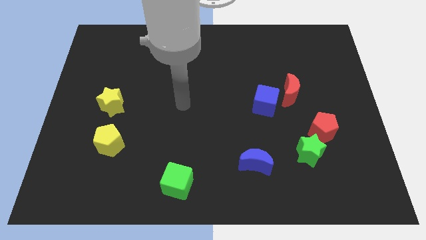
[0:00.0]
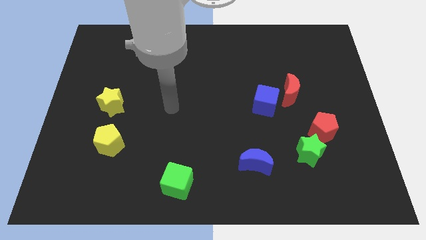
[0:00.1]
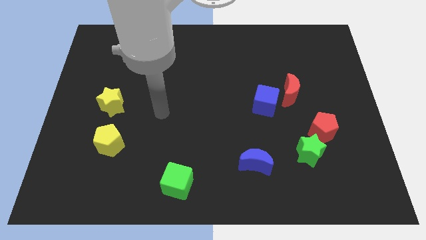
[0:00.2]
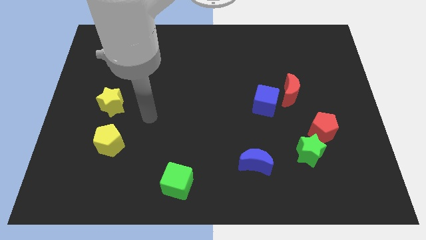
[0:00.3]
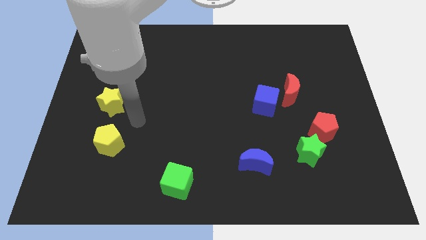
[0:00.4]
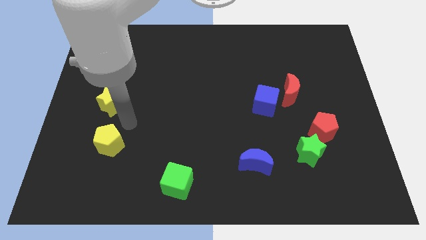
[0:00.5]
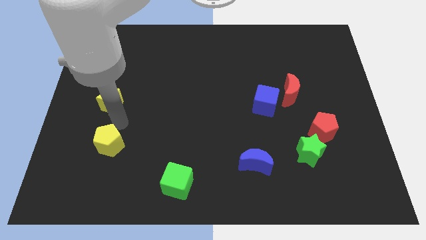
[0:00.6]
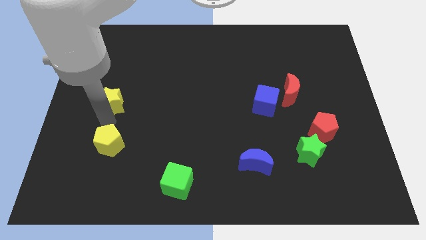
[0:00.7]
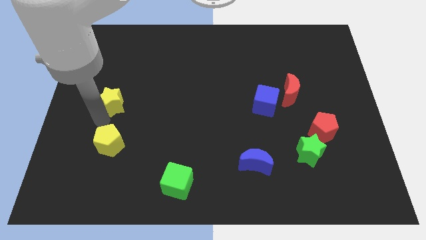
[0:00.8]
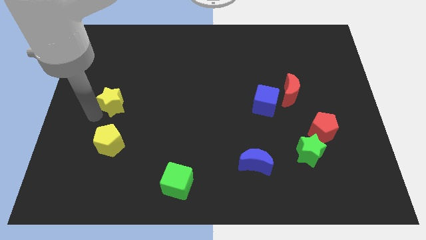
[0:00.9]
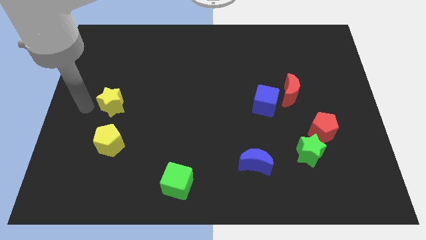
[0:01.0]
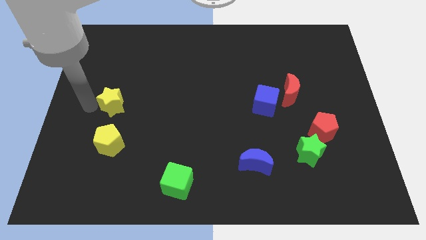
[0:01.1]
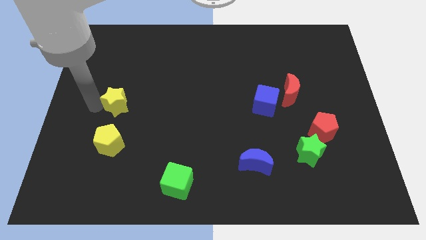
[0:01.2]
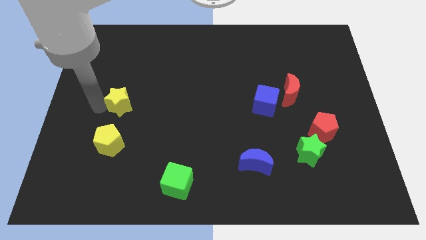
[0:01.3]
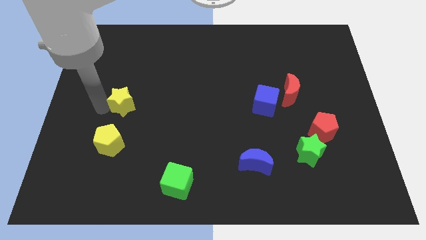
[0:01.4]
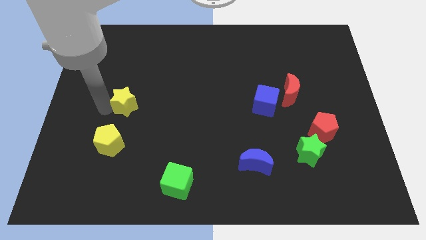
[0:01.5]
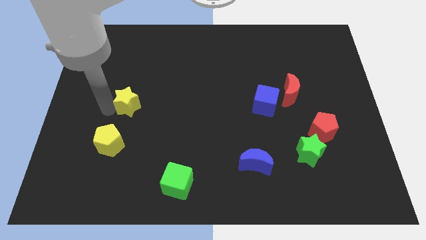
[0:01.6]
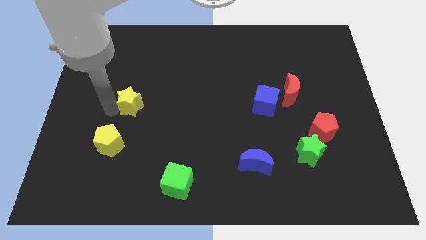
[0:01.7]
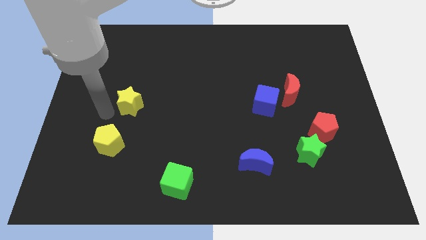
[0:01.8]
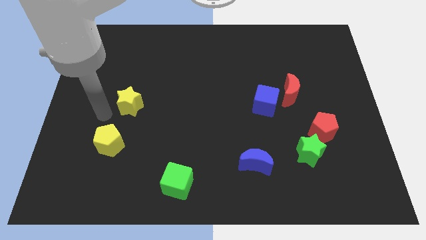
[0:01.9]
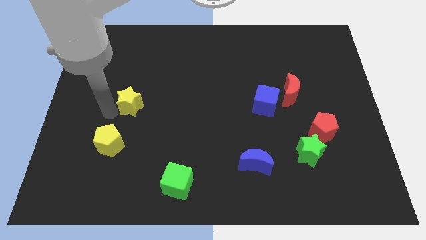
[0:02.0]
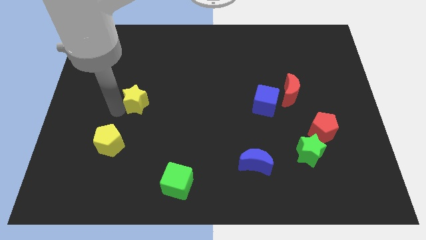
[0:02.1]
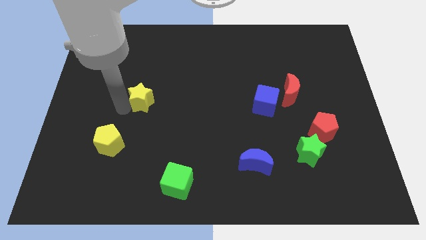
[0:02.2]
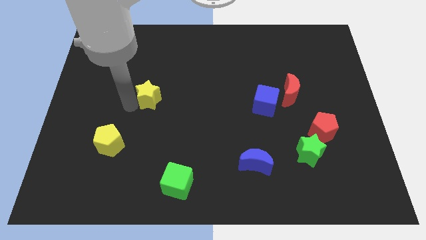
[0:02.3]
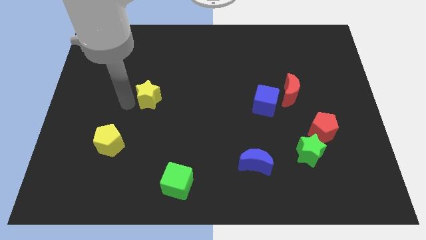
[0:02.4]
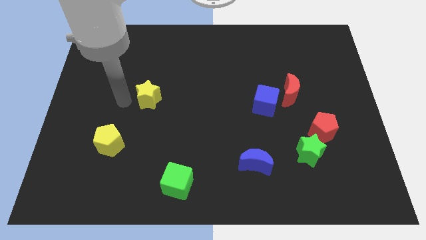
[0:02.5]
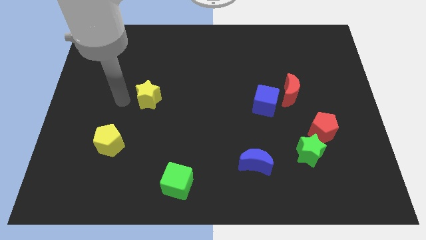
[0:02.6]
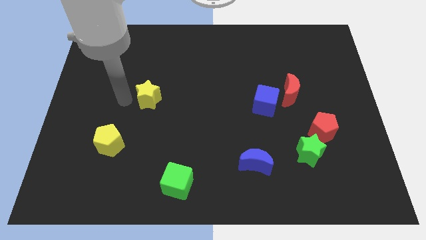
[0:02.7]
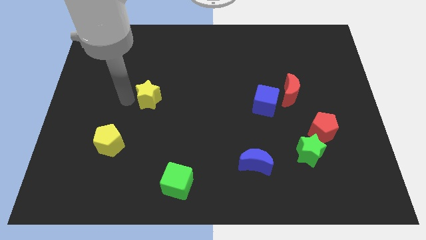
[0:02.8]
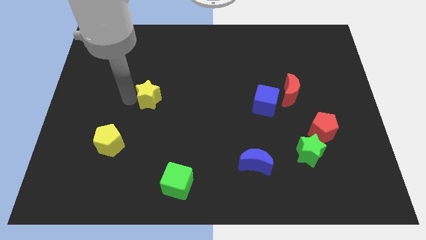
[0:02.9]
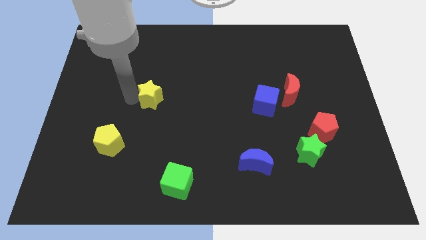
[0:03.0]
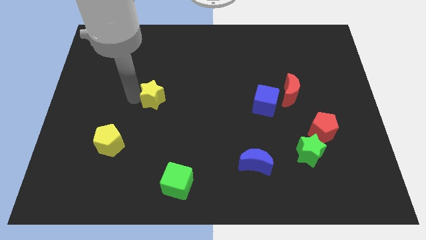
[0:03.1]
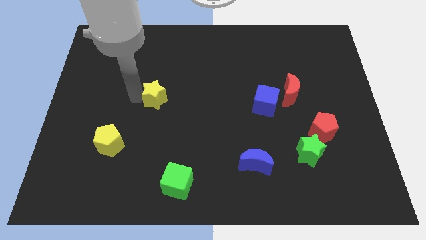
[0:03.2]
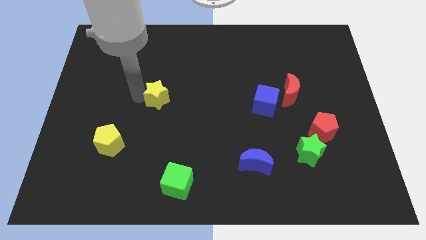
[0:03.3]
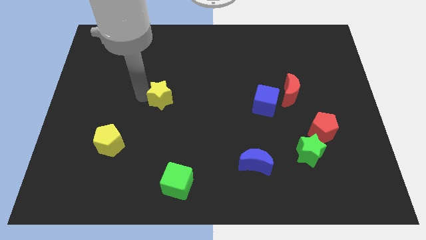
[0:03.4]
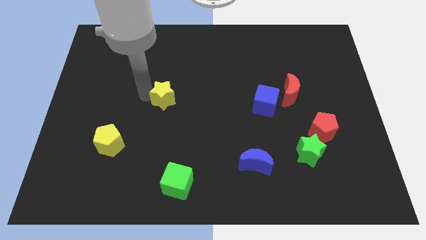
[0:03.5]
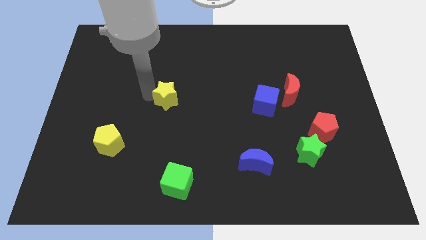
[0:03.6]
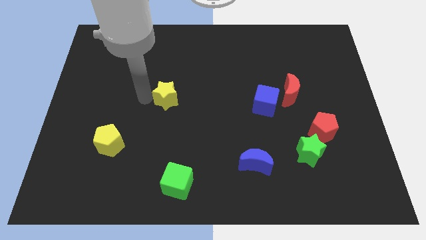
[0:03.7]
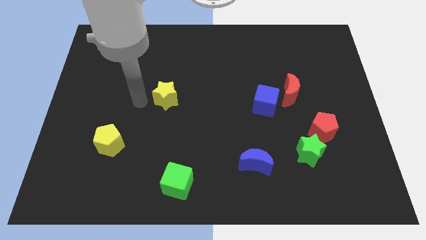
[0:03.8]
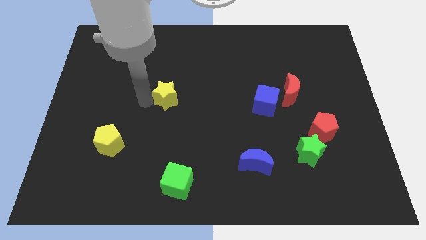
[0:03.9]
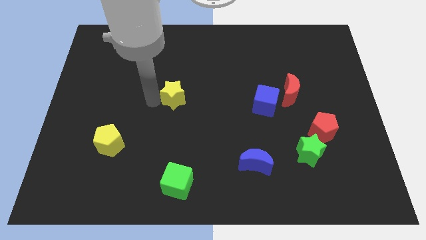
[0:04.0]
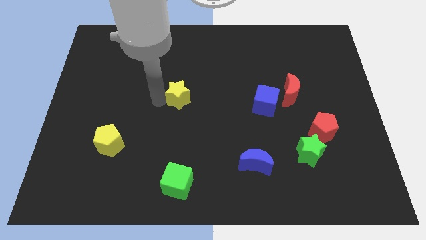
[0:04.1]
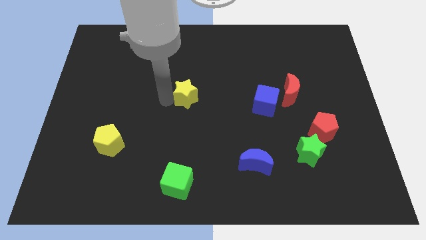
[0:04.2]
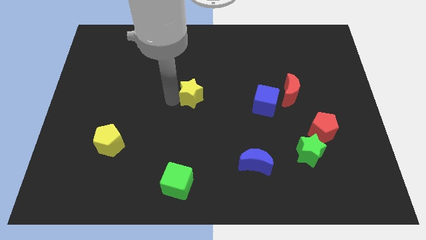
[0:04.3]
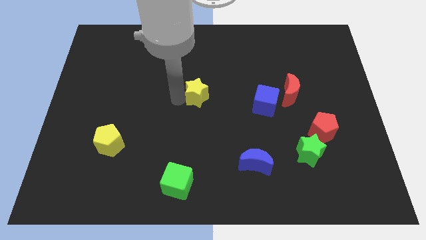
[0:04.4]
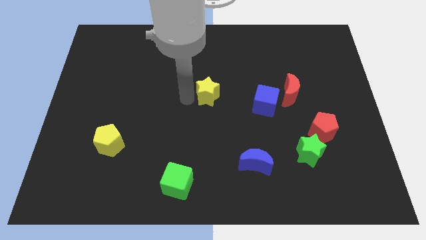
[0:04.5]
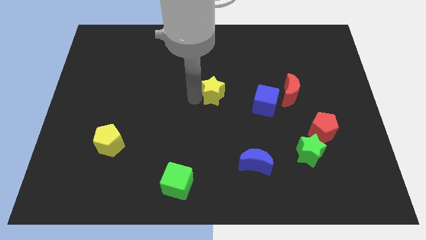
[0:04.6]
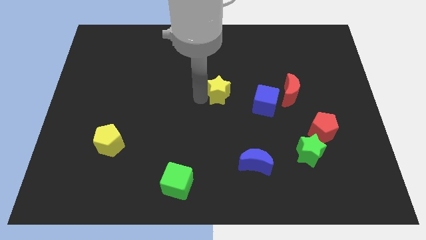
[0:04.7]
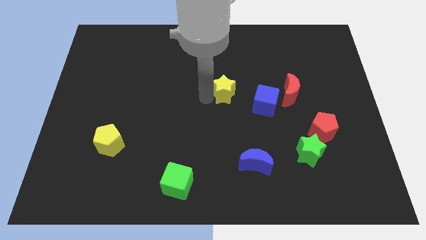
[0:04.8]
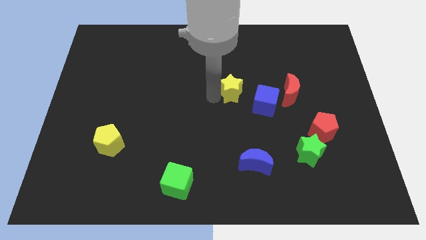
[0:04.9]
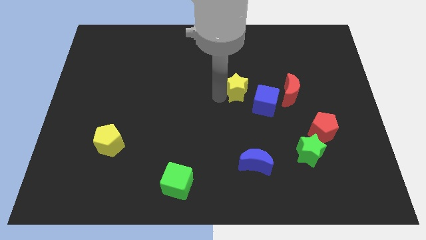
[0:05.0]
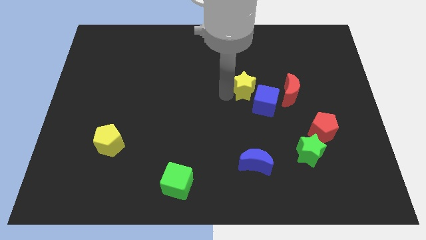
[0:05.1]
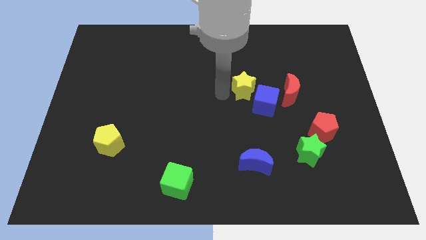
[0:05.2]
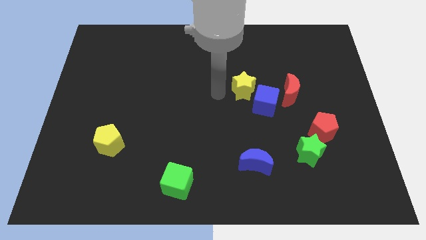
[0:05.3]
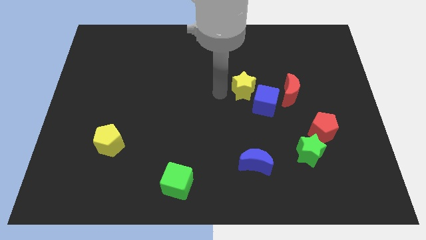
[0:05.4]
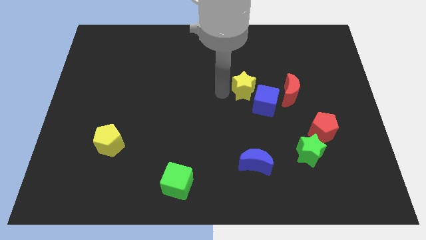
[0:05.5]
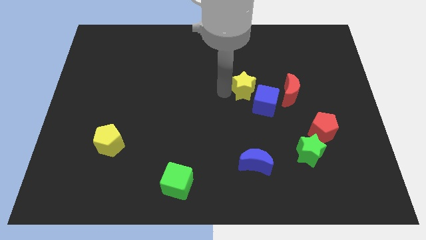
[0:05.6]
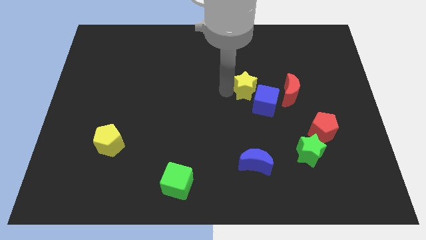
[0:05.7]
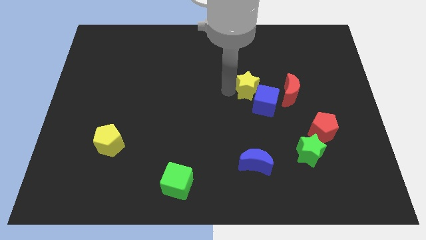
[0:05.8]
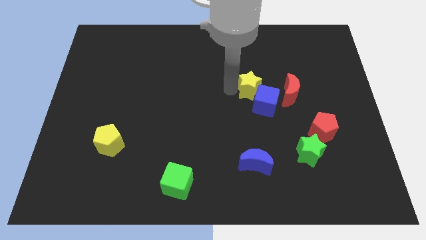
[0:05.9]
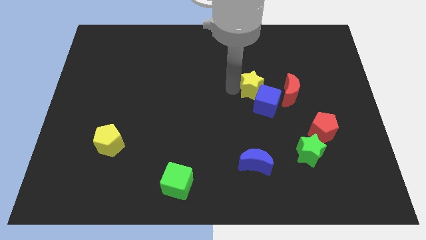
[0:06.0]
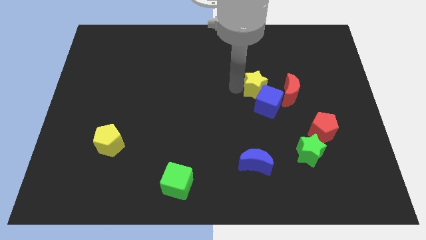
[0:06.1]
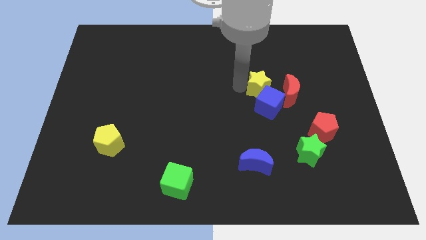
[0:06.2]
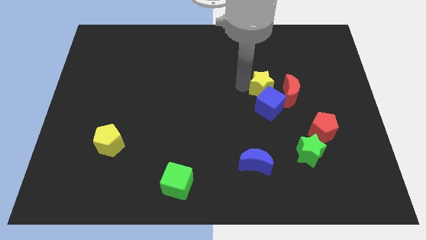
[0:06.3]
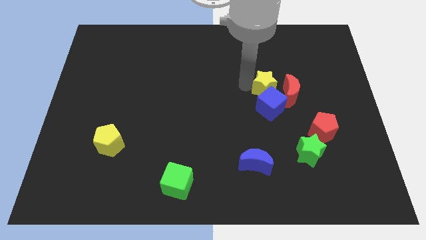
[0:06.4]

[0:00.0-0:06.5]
slide the yellow star to the top right side of the blue cube
